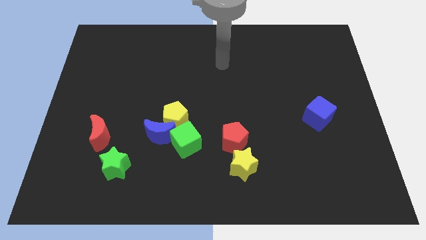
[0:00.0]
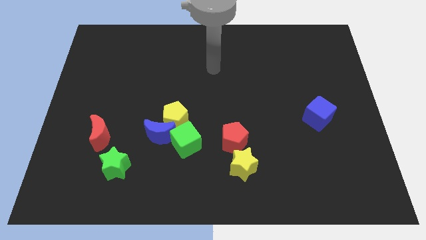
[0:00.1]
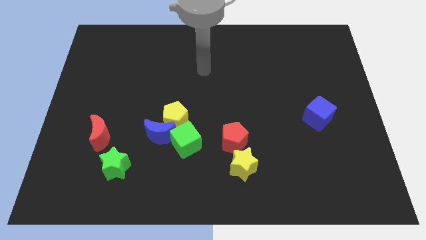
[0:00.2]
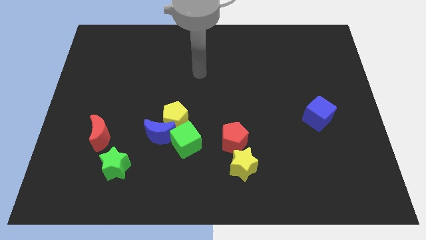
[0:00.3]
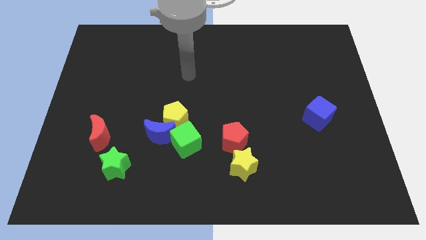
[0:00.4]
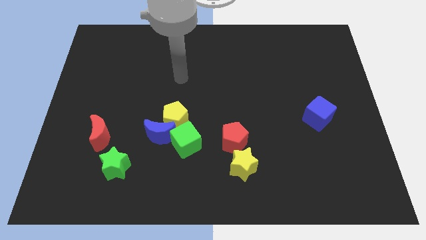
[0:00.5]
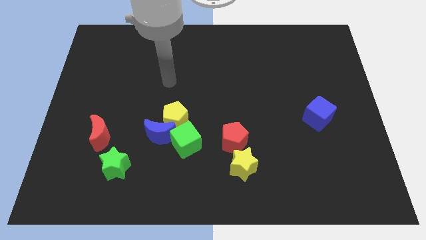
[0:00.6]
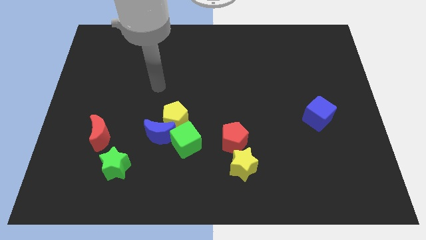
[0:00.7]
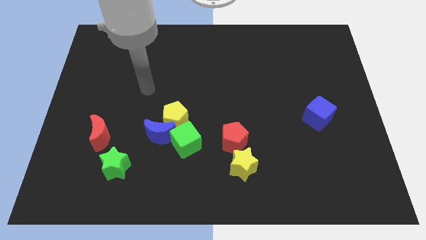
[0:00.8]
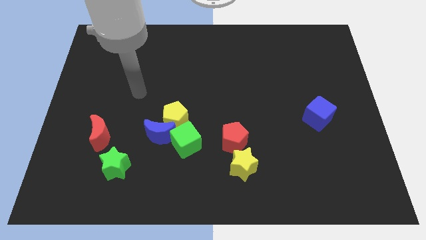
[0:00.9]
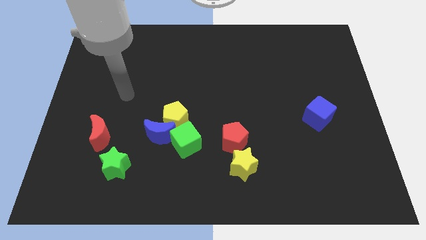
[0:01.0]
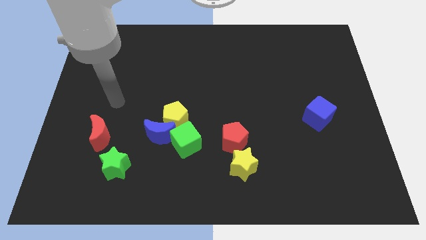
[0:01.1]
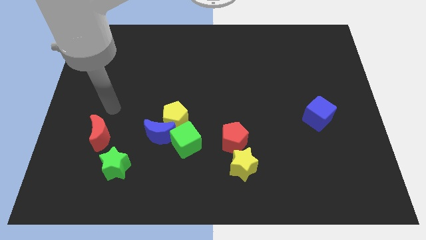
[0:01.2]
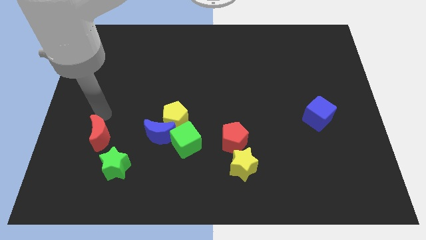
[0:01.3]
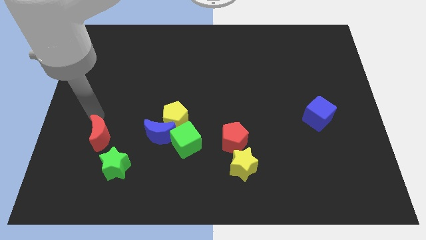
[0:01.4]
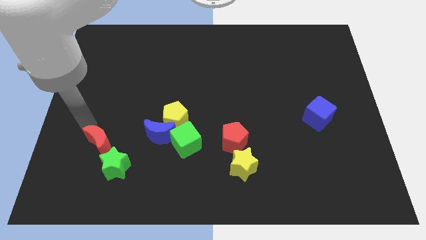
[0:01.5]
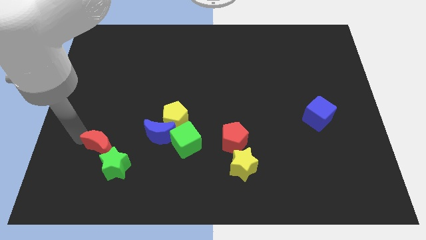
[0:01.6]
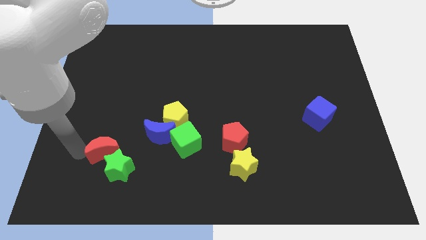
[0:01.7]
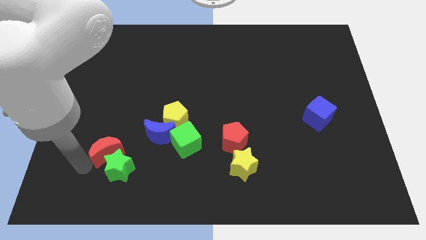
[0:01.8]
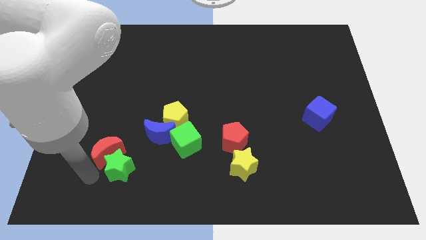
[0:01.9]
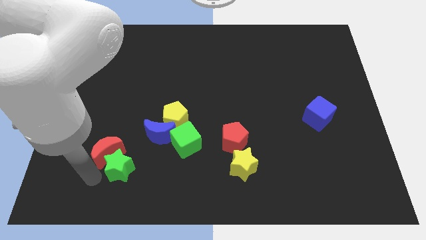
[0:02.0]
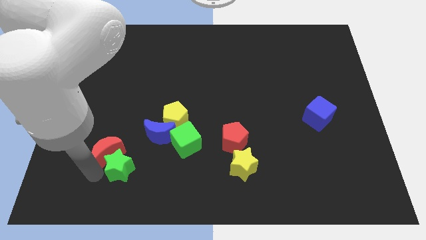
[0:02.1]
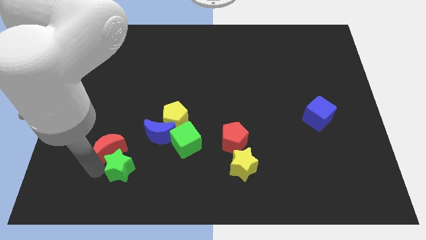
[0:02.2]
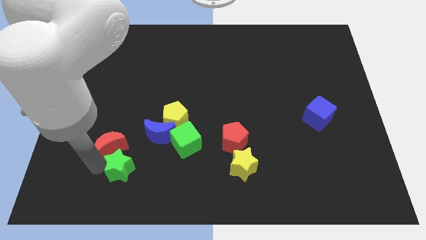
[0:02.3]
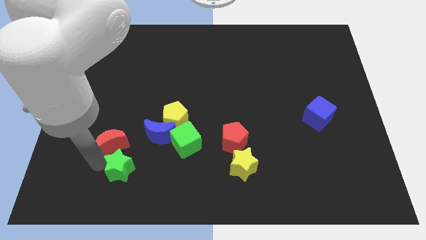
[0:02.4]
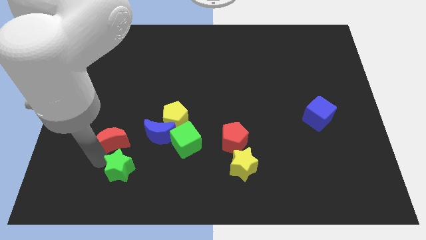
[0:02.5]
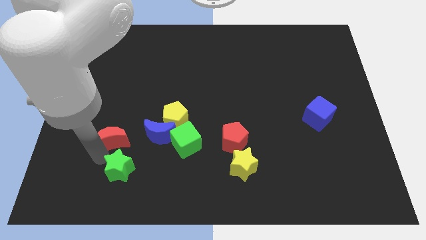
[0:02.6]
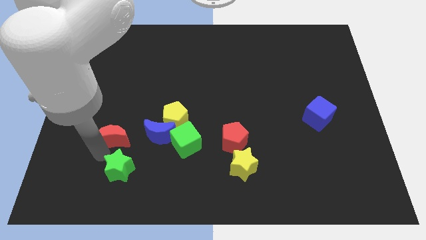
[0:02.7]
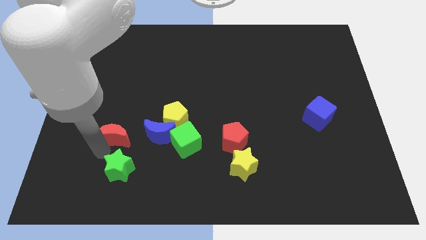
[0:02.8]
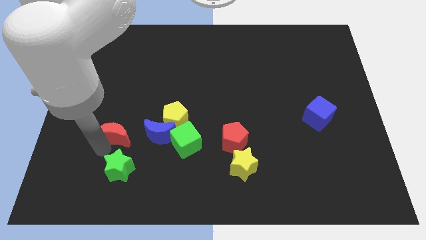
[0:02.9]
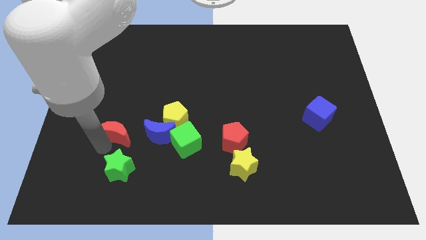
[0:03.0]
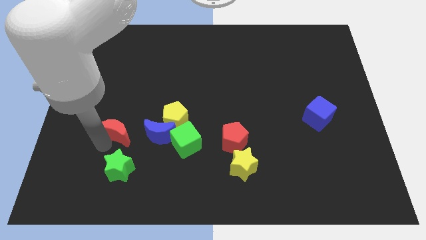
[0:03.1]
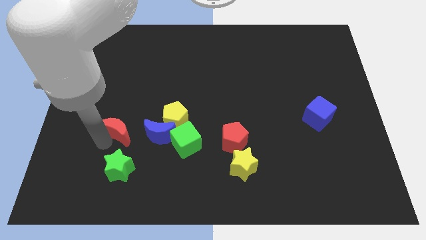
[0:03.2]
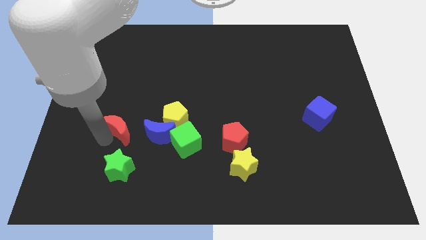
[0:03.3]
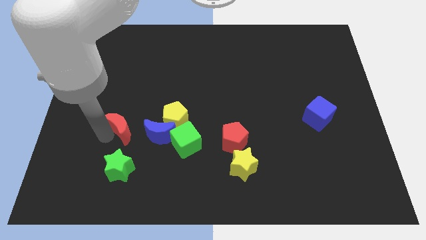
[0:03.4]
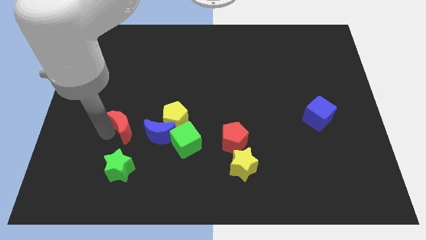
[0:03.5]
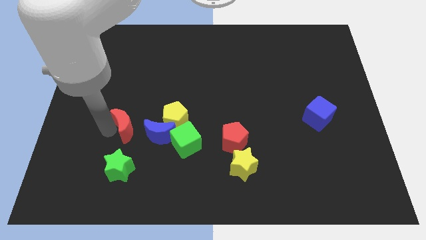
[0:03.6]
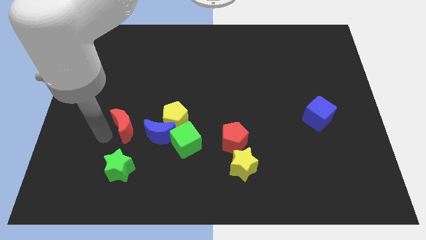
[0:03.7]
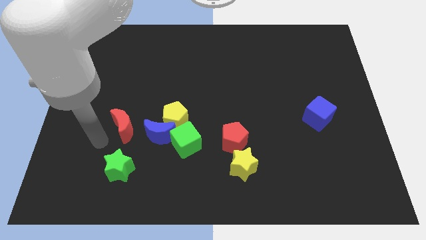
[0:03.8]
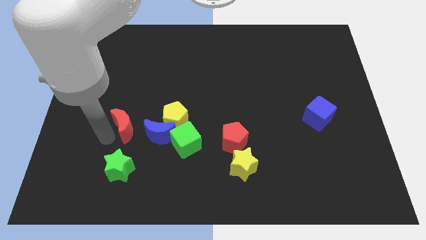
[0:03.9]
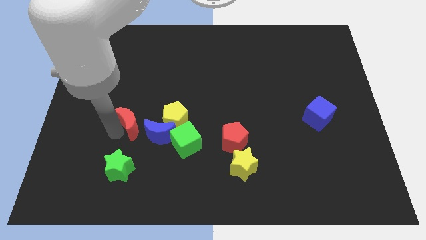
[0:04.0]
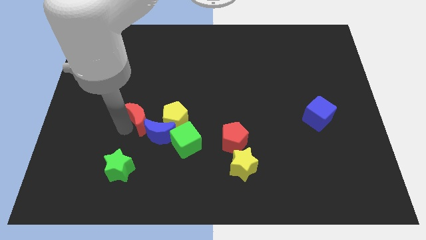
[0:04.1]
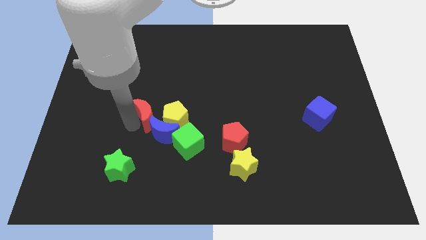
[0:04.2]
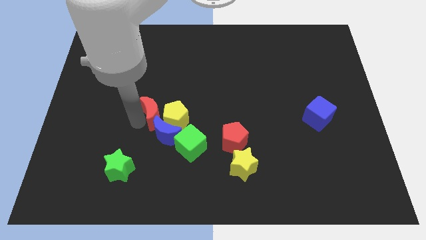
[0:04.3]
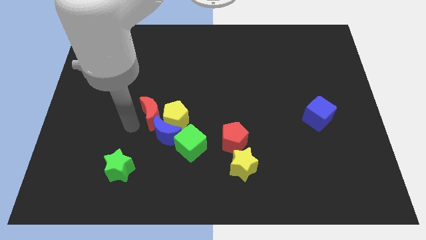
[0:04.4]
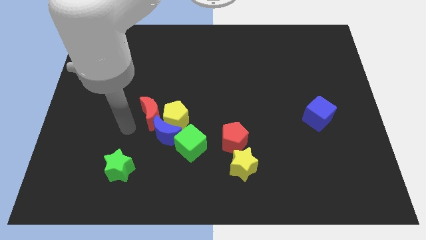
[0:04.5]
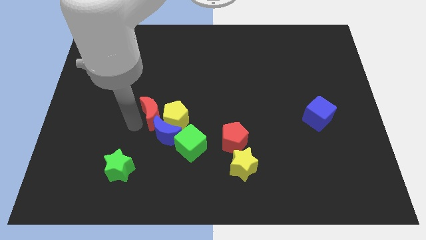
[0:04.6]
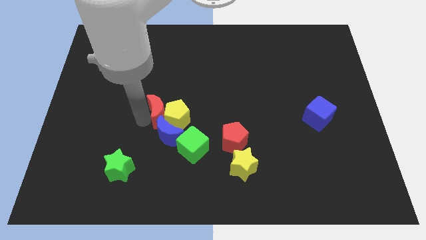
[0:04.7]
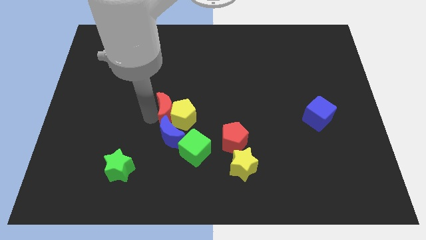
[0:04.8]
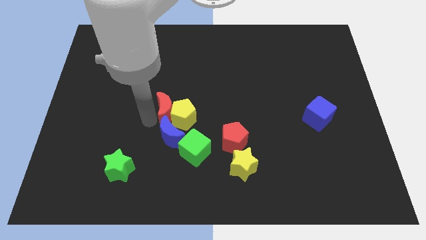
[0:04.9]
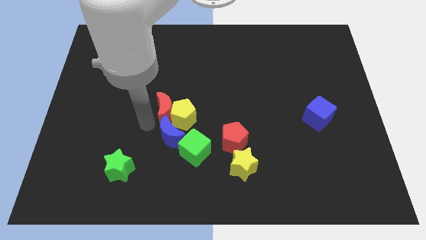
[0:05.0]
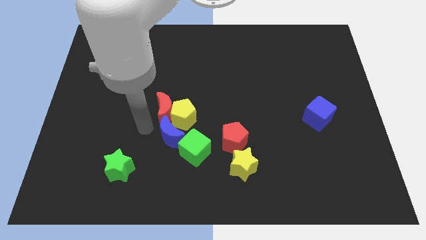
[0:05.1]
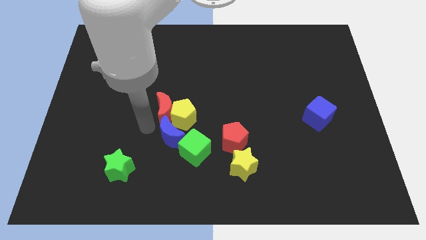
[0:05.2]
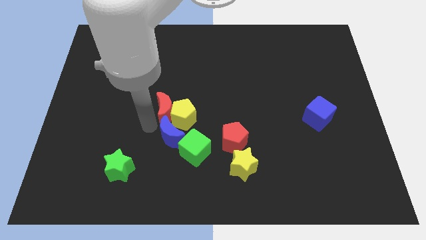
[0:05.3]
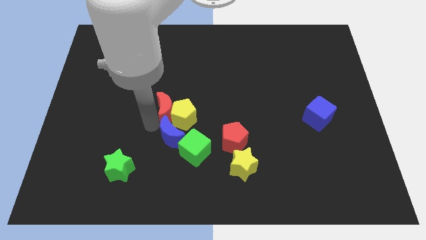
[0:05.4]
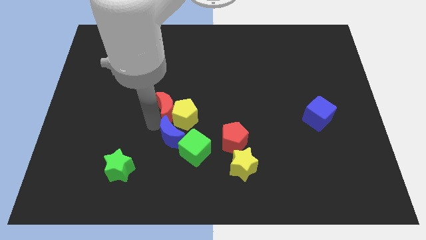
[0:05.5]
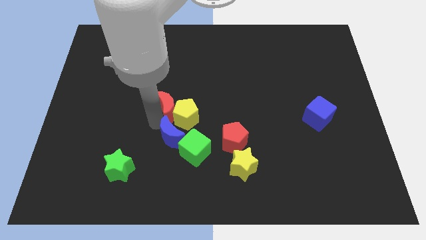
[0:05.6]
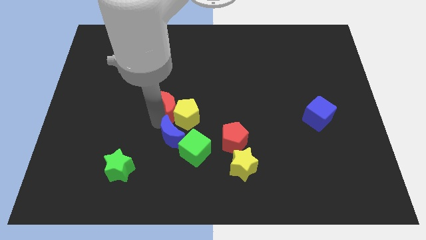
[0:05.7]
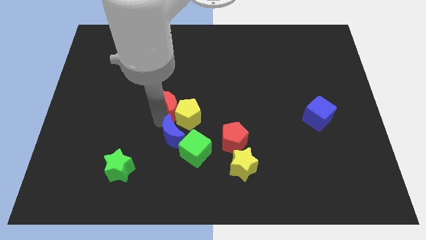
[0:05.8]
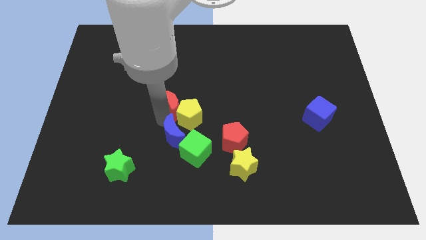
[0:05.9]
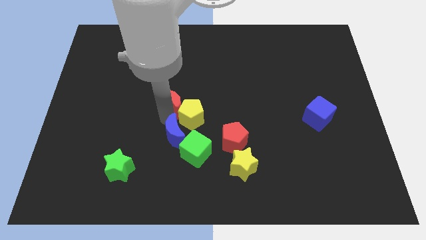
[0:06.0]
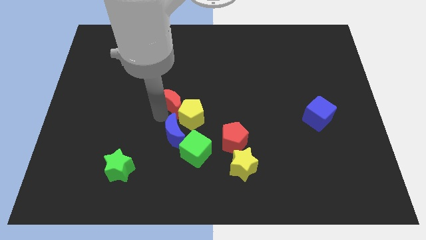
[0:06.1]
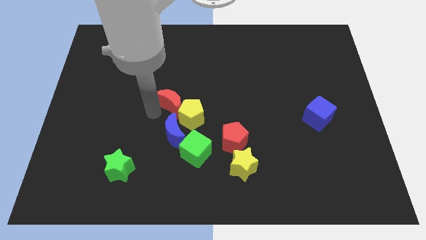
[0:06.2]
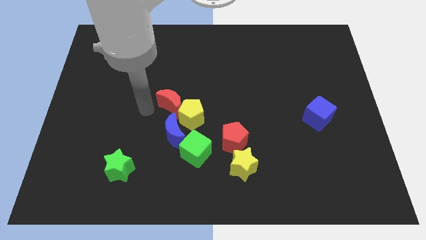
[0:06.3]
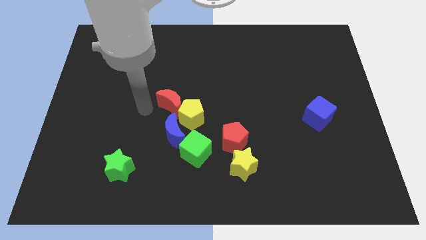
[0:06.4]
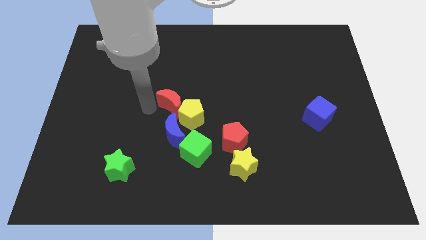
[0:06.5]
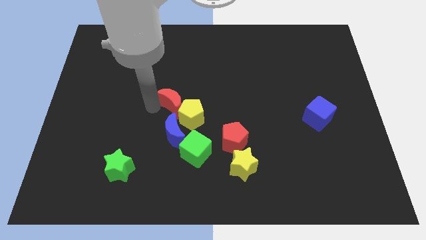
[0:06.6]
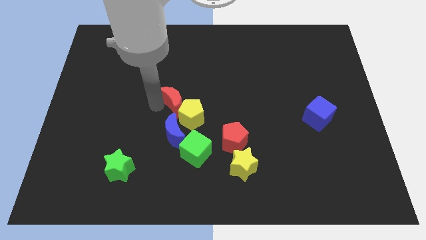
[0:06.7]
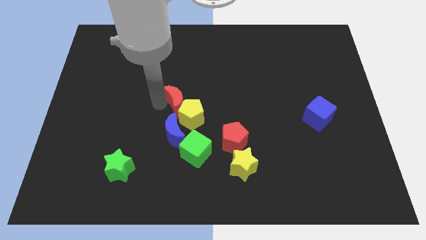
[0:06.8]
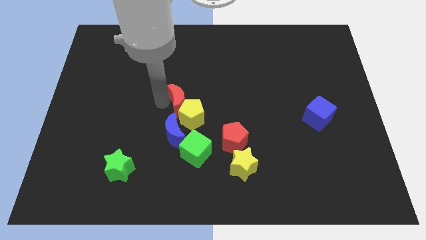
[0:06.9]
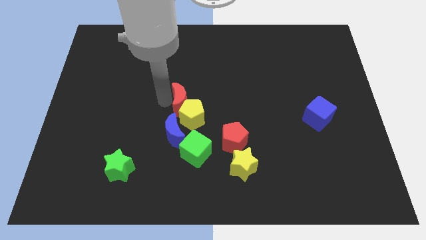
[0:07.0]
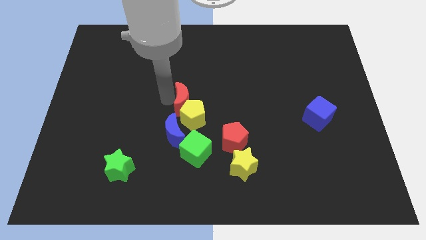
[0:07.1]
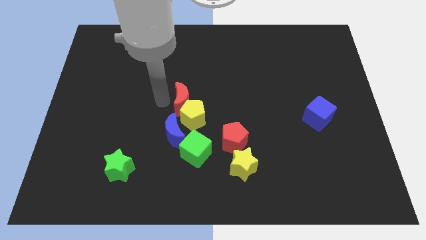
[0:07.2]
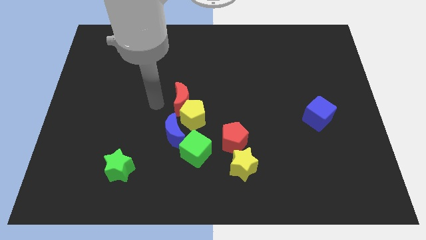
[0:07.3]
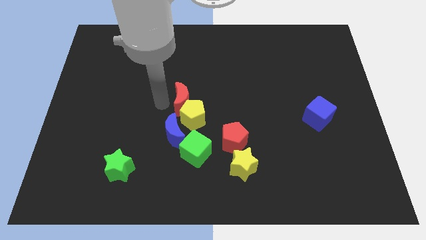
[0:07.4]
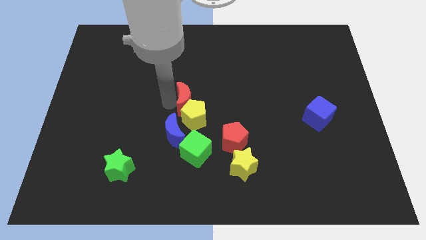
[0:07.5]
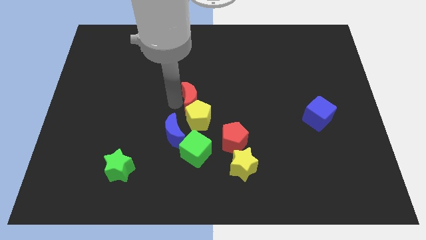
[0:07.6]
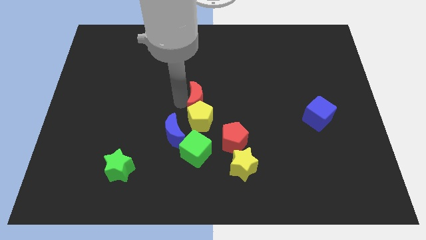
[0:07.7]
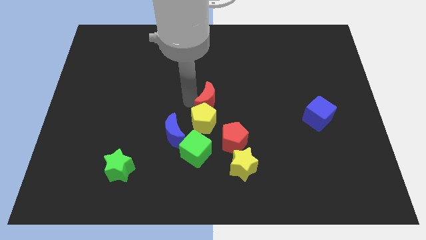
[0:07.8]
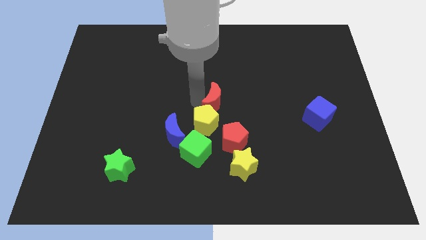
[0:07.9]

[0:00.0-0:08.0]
move the red moon to the top side of the red pentagon
